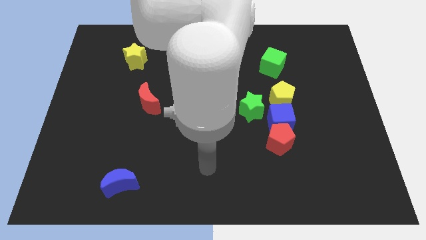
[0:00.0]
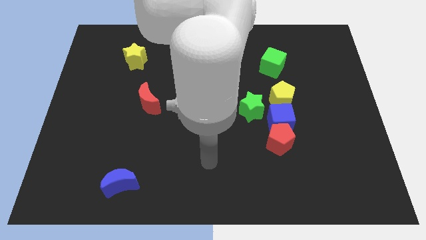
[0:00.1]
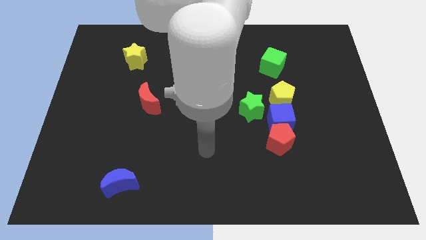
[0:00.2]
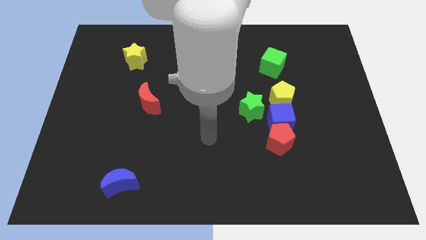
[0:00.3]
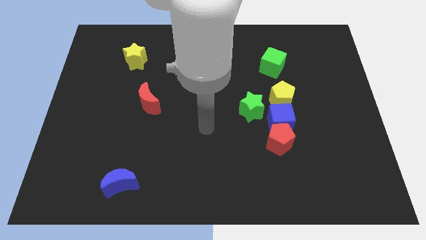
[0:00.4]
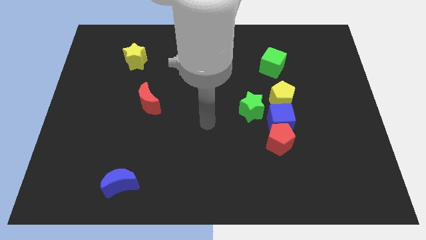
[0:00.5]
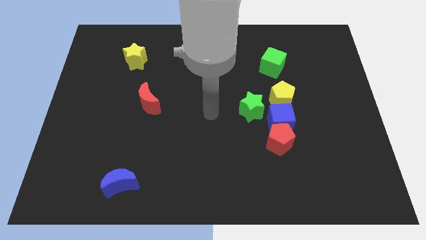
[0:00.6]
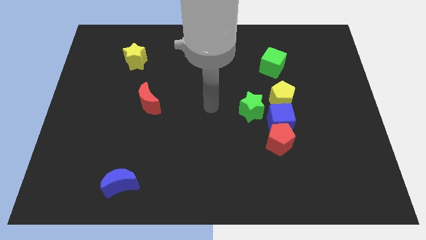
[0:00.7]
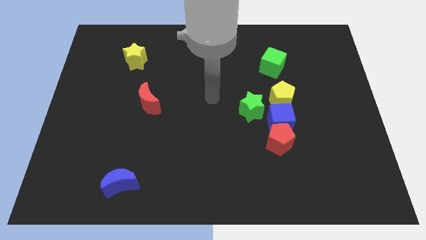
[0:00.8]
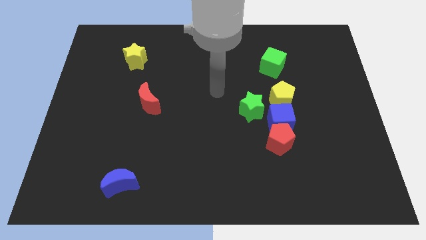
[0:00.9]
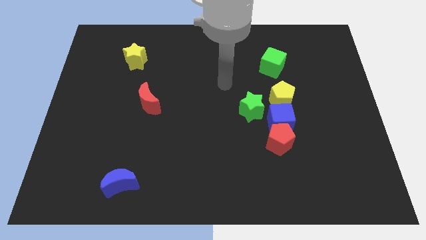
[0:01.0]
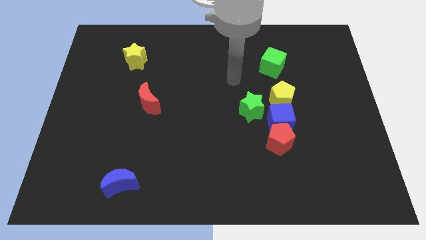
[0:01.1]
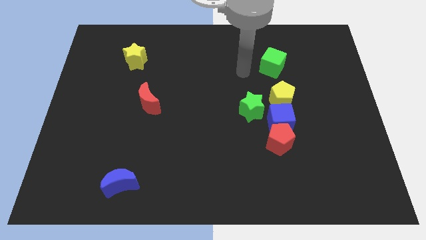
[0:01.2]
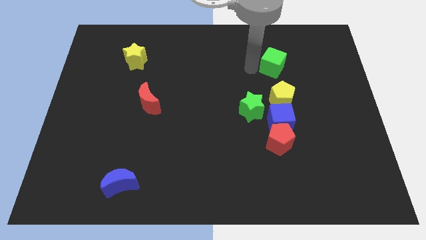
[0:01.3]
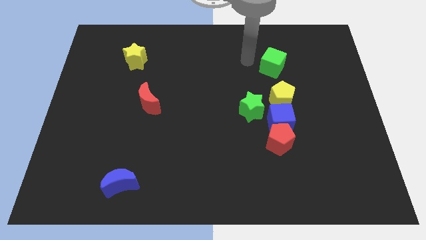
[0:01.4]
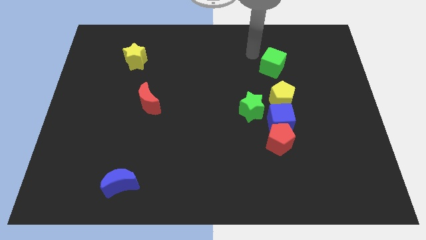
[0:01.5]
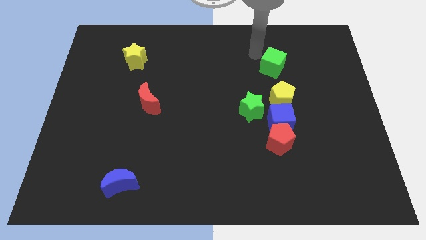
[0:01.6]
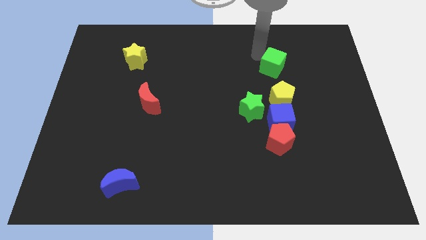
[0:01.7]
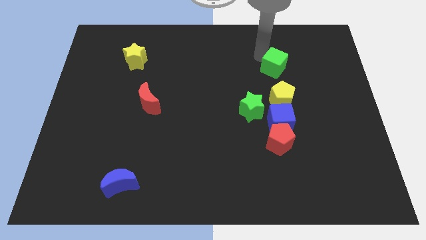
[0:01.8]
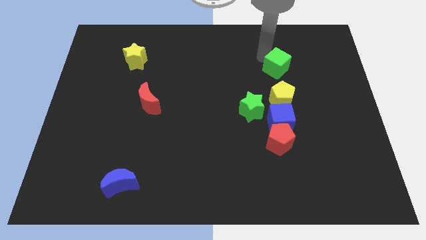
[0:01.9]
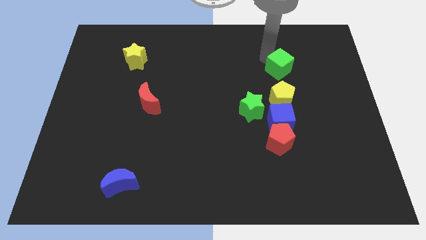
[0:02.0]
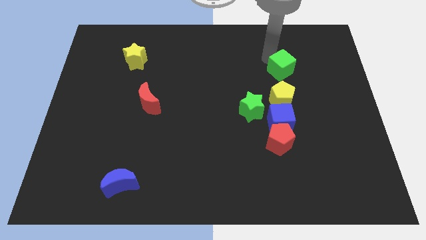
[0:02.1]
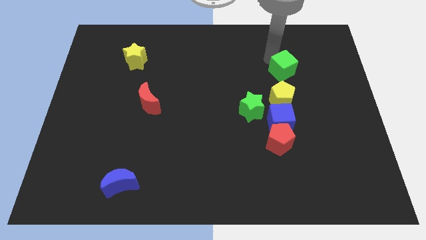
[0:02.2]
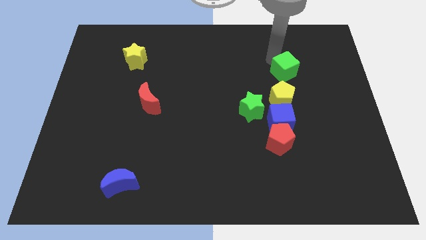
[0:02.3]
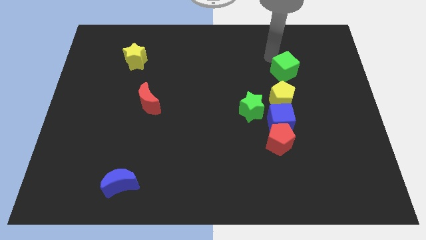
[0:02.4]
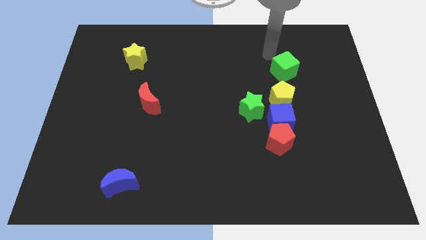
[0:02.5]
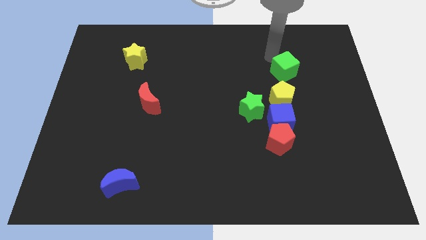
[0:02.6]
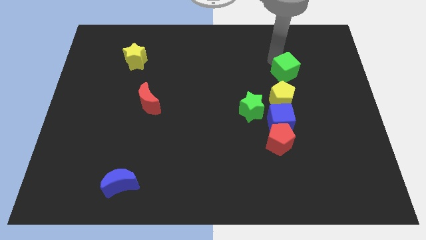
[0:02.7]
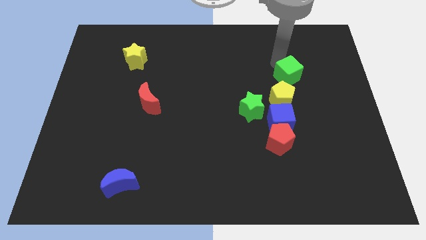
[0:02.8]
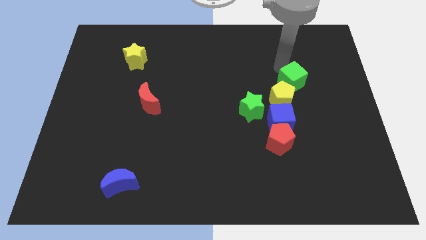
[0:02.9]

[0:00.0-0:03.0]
move the green cube a little downwards and to the right

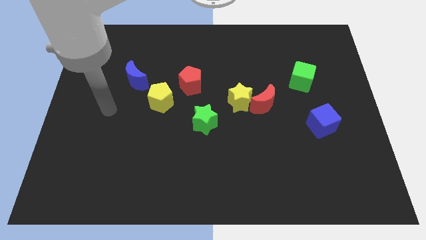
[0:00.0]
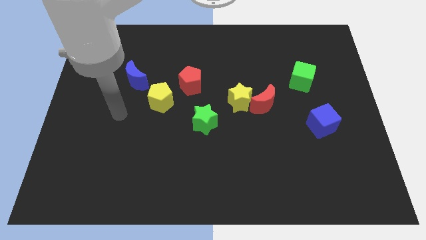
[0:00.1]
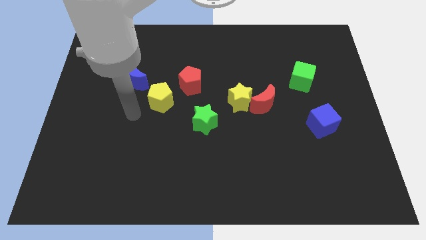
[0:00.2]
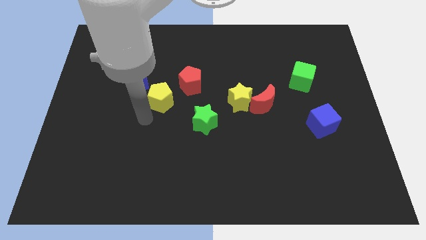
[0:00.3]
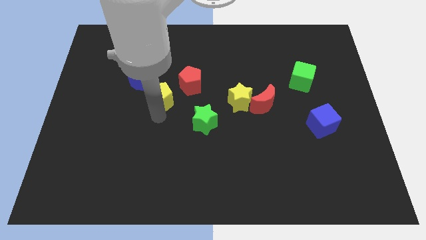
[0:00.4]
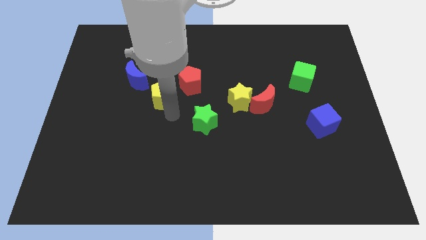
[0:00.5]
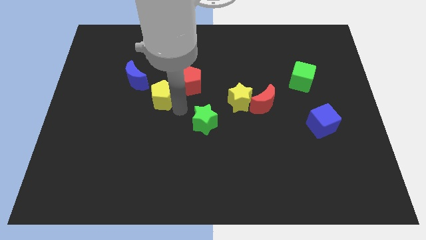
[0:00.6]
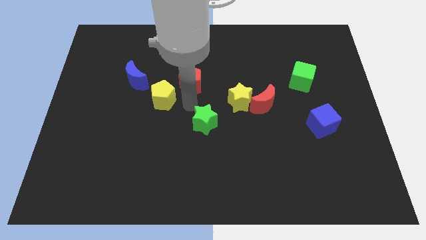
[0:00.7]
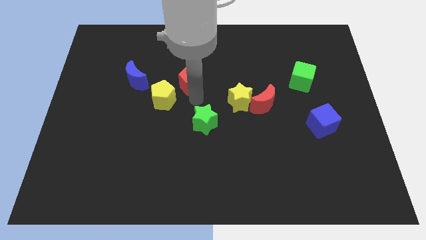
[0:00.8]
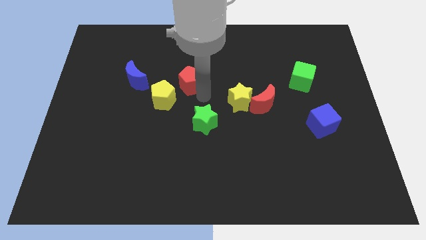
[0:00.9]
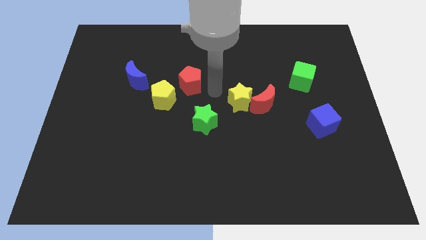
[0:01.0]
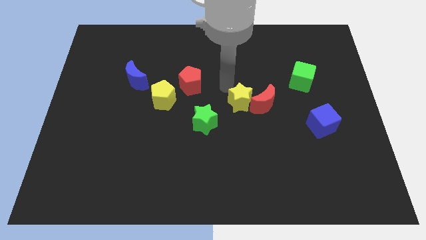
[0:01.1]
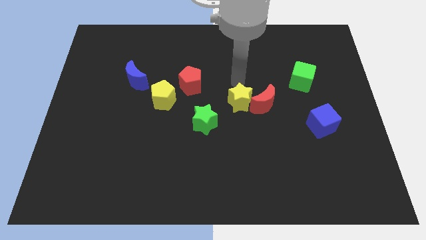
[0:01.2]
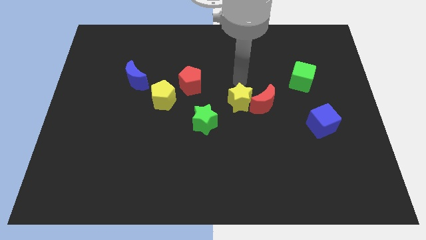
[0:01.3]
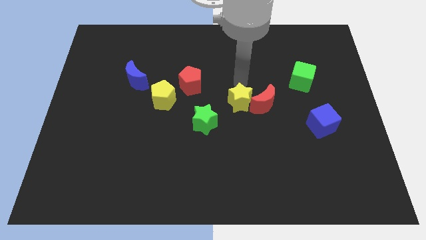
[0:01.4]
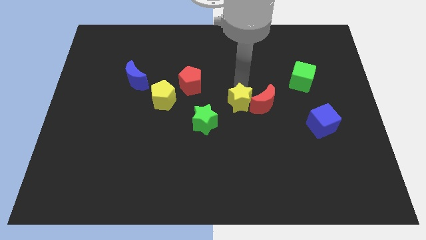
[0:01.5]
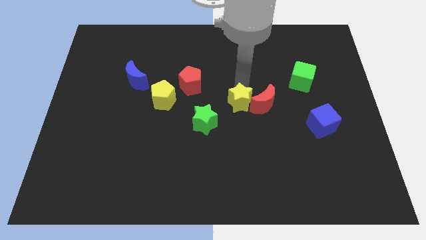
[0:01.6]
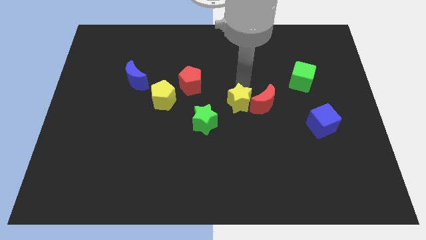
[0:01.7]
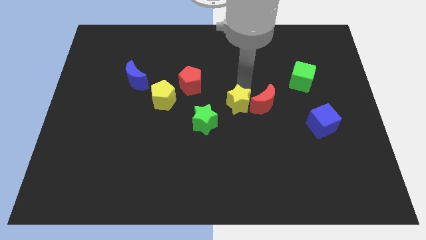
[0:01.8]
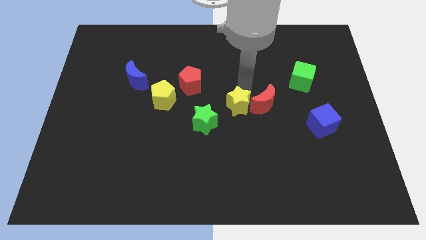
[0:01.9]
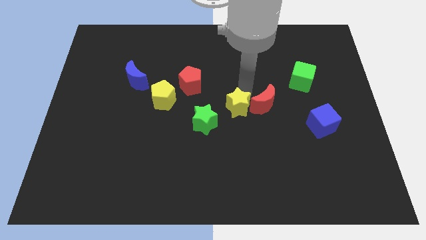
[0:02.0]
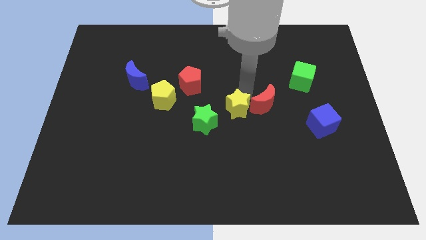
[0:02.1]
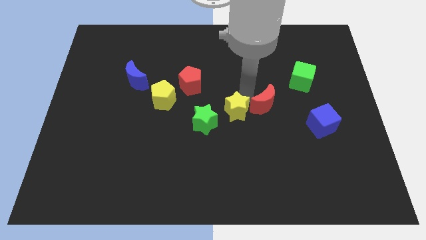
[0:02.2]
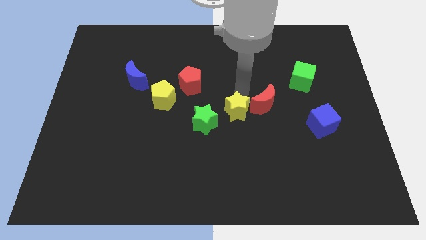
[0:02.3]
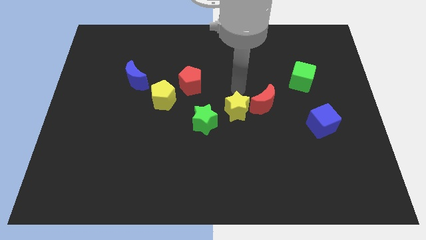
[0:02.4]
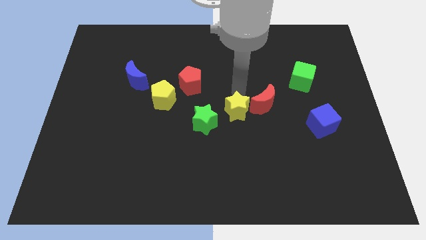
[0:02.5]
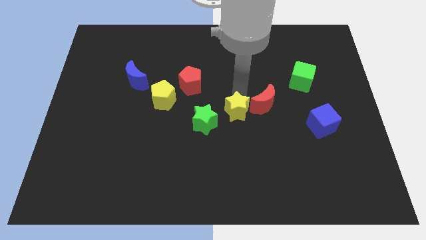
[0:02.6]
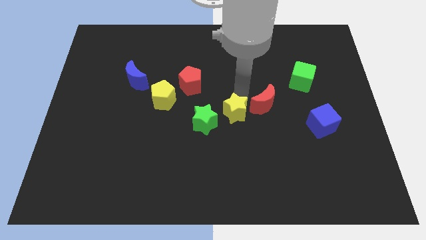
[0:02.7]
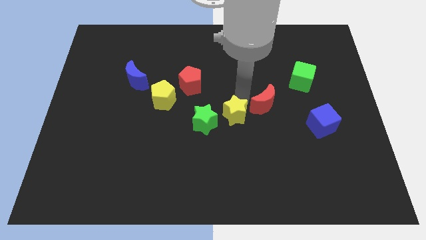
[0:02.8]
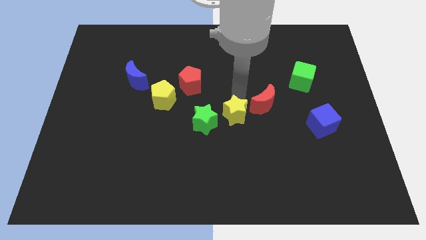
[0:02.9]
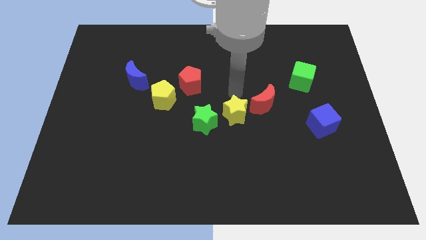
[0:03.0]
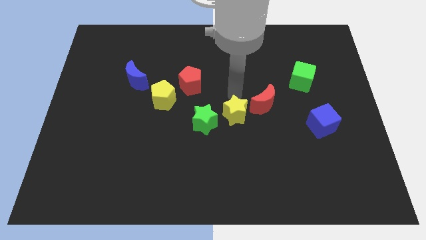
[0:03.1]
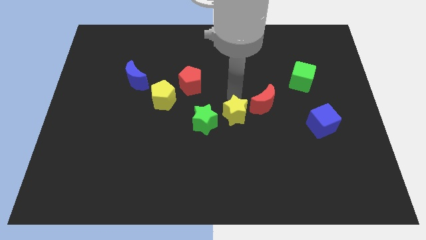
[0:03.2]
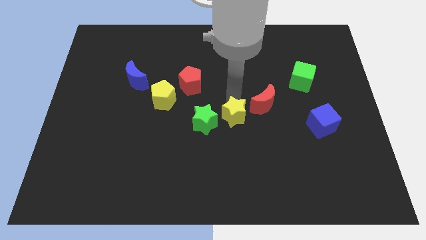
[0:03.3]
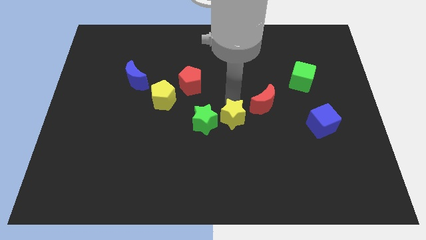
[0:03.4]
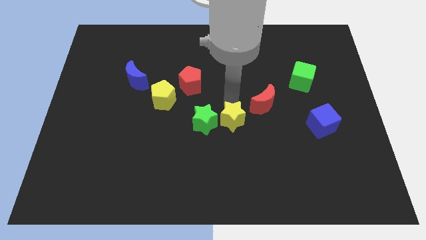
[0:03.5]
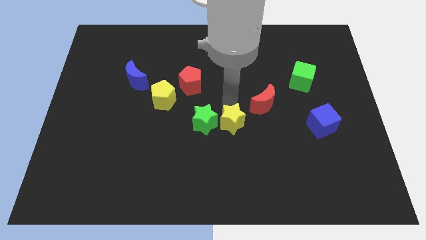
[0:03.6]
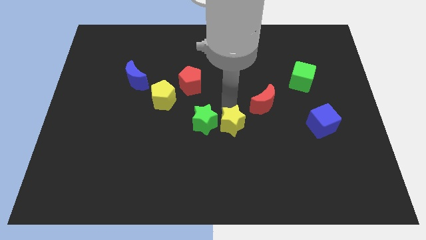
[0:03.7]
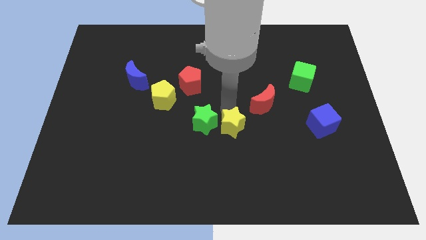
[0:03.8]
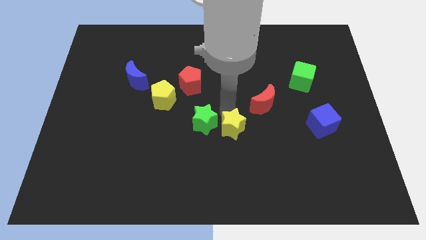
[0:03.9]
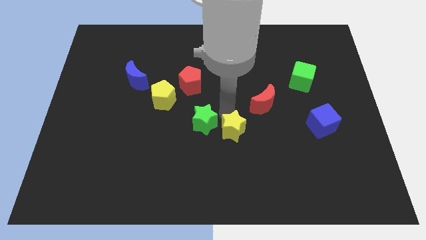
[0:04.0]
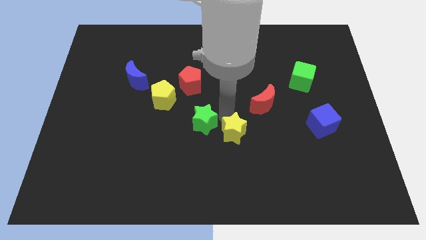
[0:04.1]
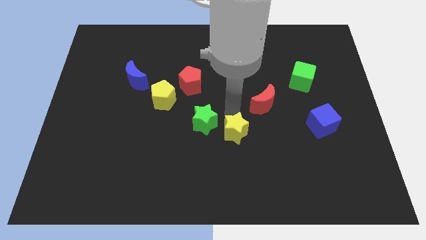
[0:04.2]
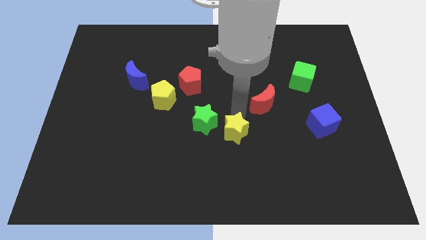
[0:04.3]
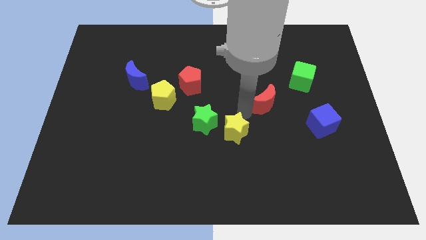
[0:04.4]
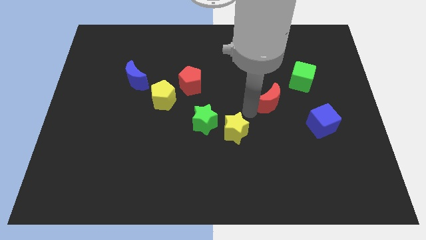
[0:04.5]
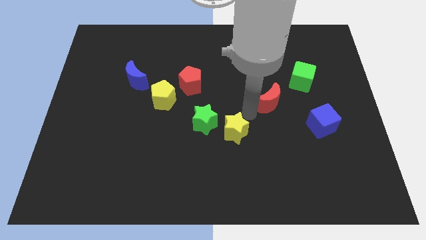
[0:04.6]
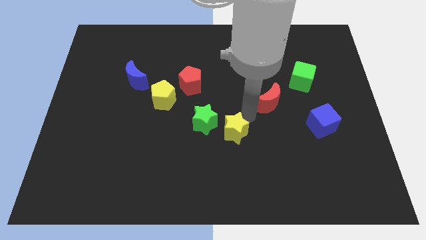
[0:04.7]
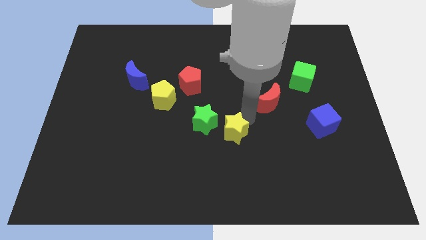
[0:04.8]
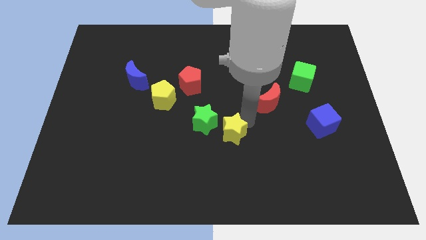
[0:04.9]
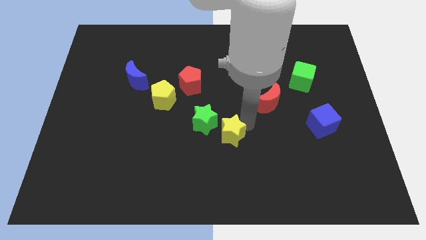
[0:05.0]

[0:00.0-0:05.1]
move the yellow star somewhat downwards and left

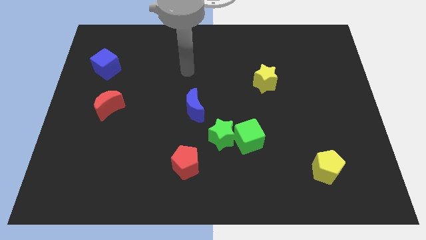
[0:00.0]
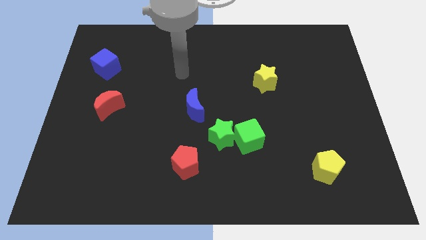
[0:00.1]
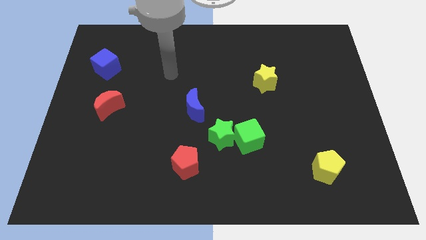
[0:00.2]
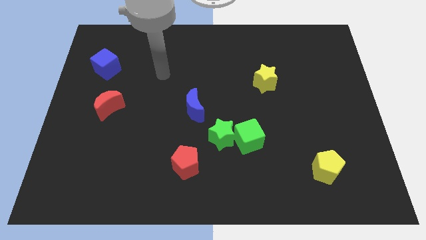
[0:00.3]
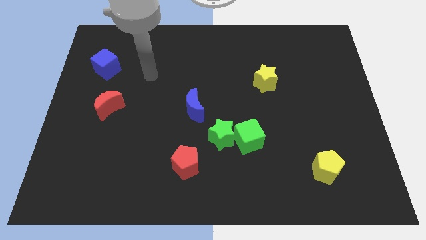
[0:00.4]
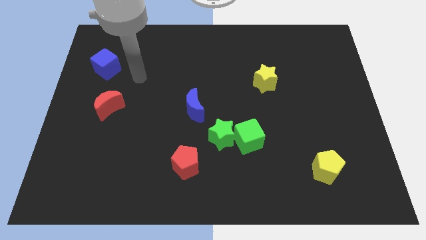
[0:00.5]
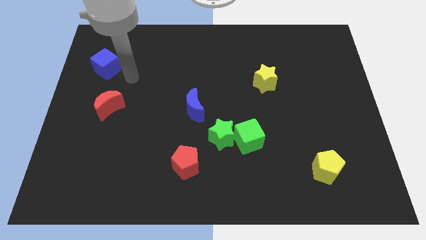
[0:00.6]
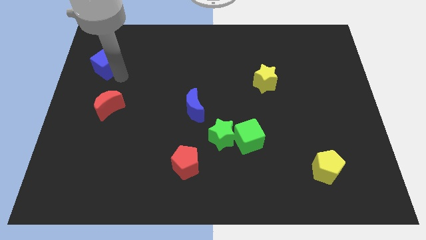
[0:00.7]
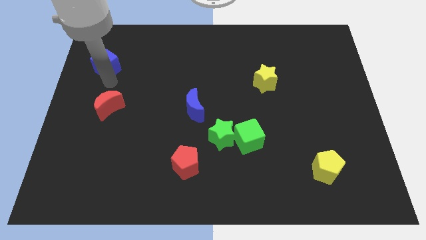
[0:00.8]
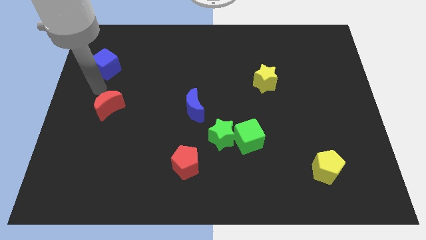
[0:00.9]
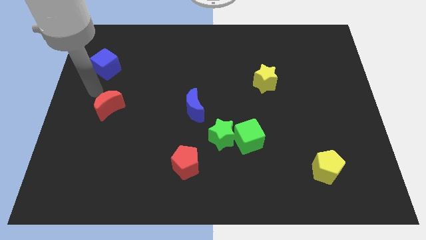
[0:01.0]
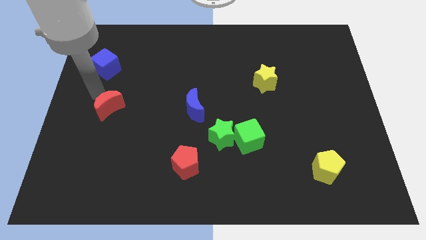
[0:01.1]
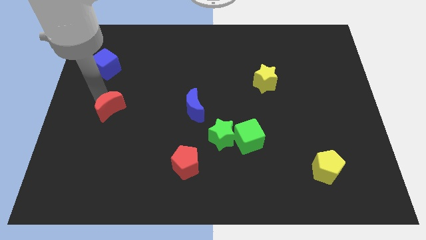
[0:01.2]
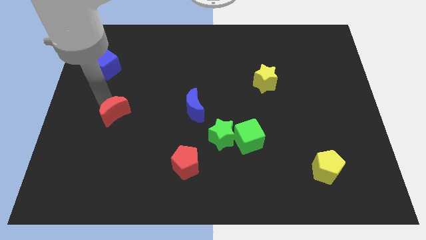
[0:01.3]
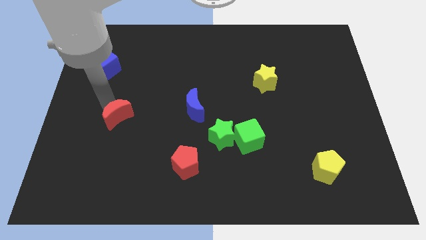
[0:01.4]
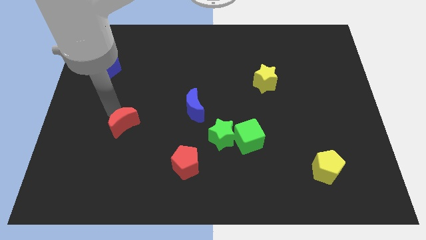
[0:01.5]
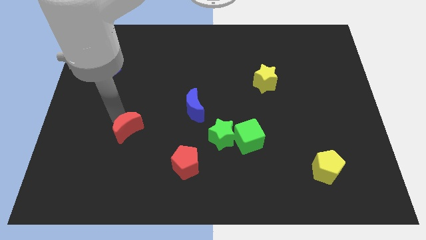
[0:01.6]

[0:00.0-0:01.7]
slightly move the red moon downwards and then to the right
